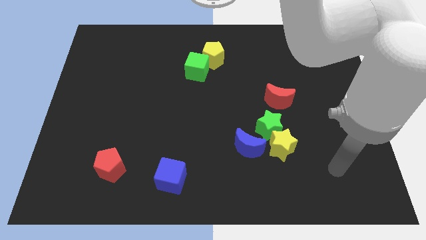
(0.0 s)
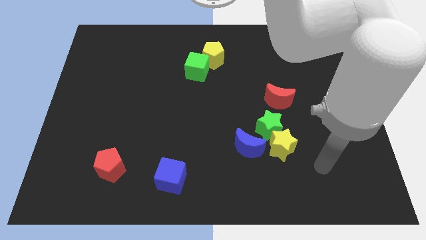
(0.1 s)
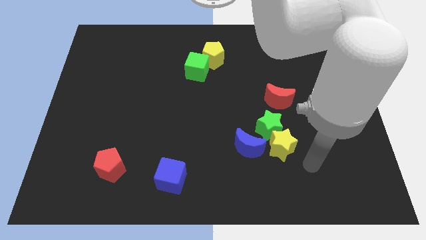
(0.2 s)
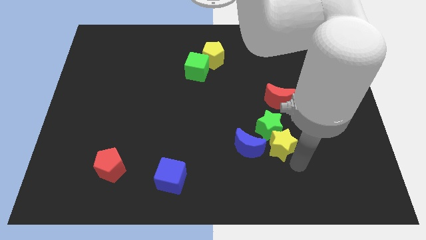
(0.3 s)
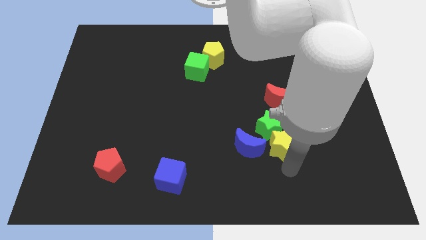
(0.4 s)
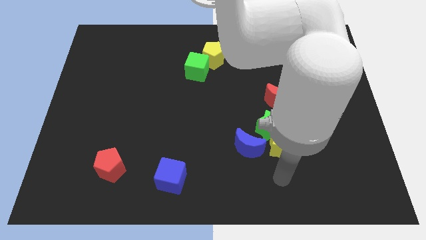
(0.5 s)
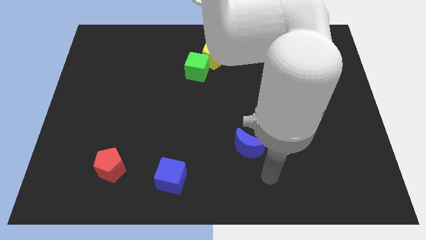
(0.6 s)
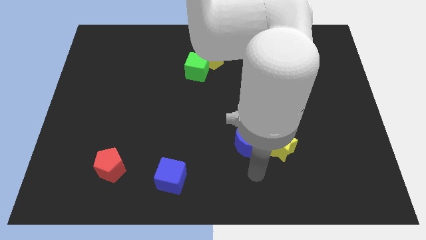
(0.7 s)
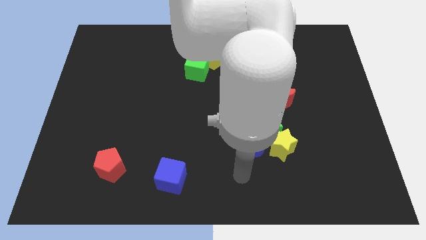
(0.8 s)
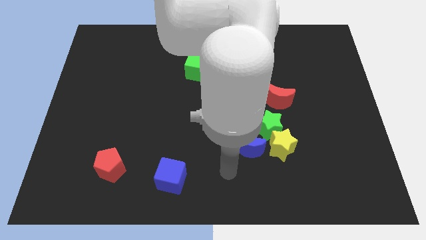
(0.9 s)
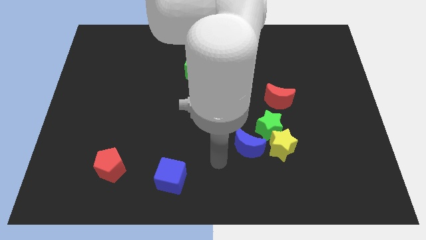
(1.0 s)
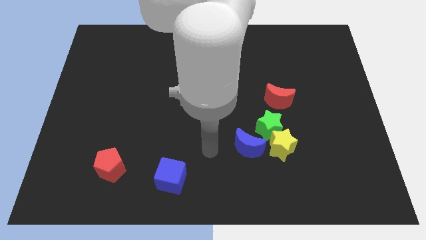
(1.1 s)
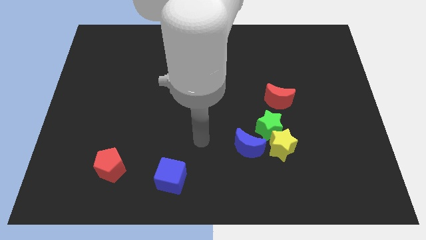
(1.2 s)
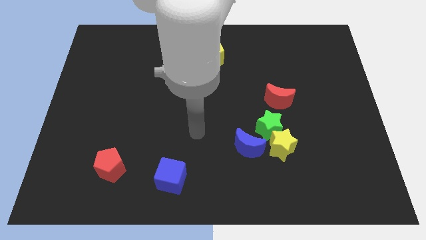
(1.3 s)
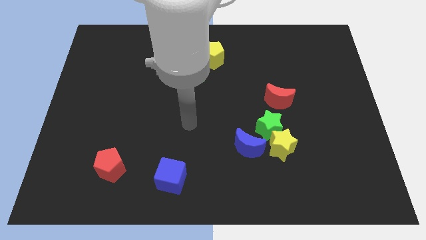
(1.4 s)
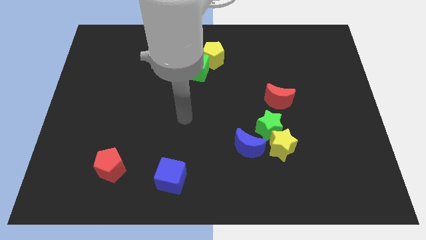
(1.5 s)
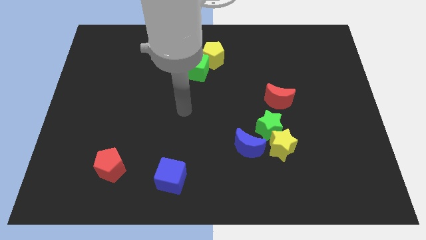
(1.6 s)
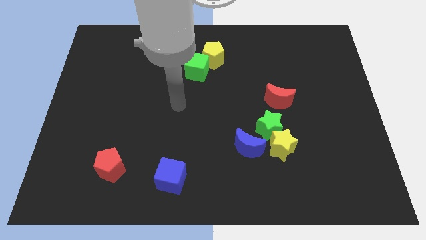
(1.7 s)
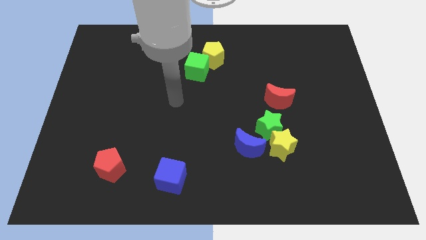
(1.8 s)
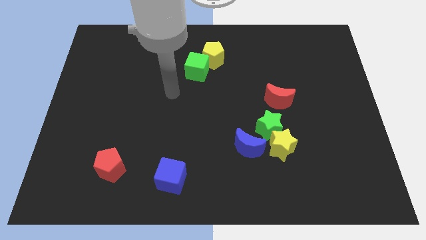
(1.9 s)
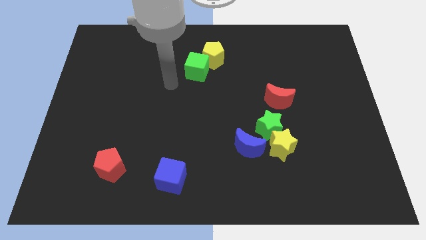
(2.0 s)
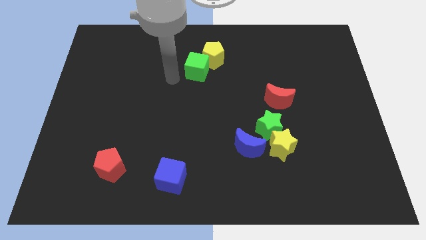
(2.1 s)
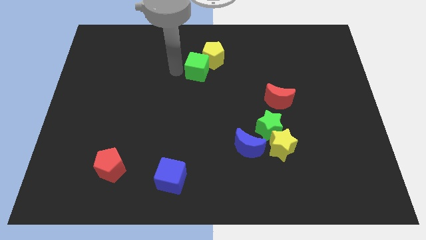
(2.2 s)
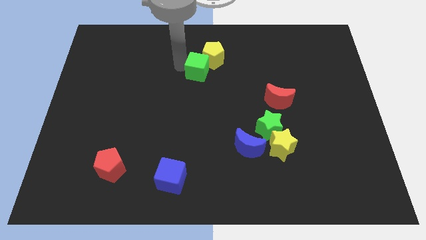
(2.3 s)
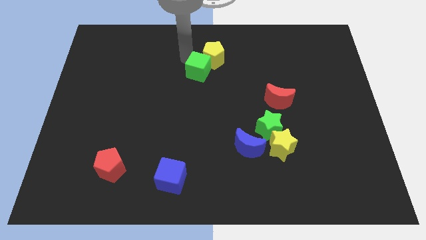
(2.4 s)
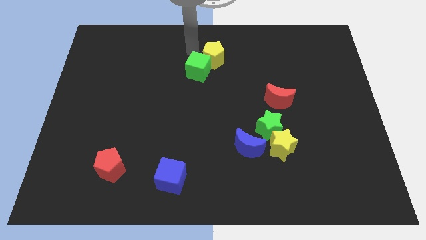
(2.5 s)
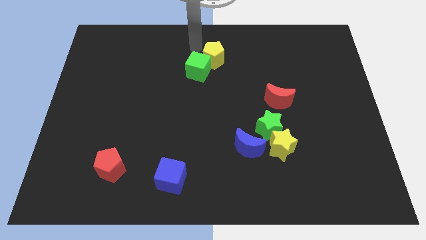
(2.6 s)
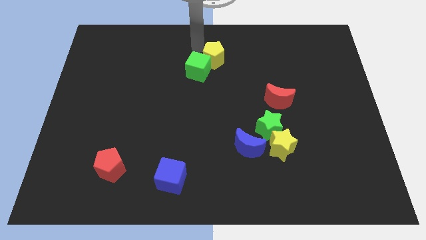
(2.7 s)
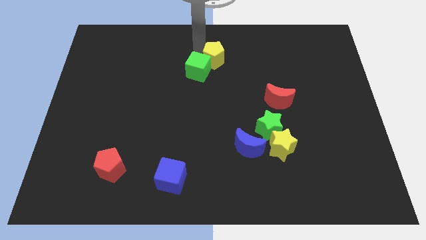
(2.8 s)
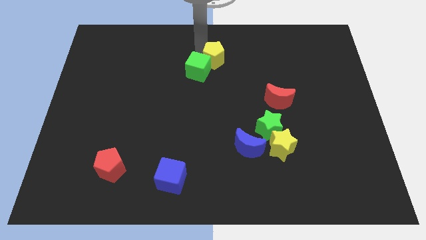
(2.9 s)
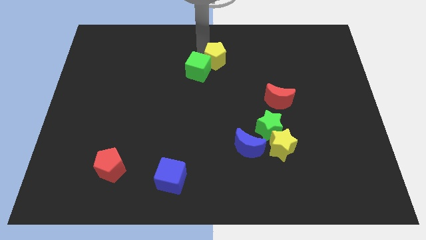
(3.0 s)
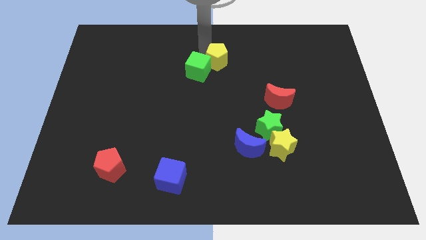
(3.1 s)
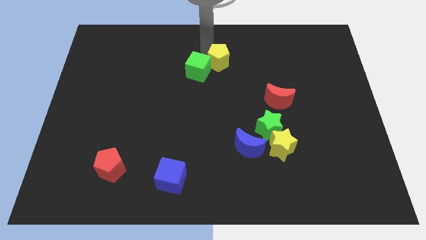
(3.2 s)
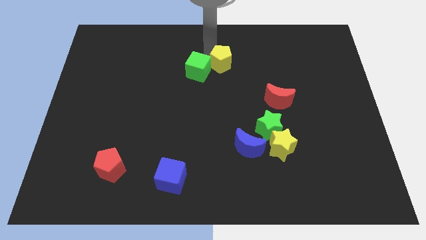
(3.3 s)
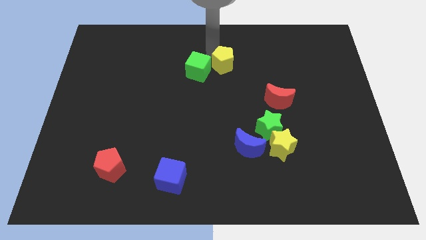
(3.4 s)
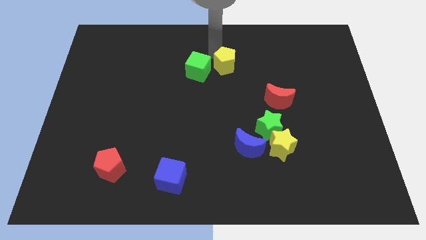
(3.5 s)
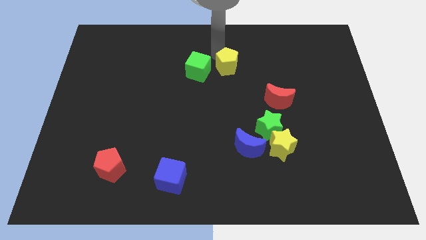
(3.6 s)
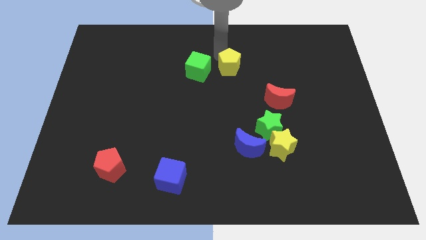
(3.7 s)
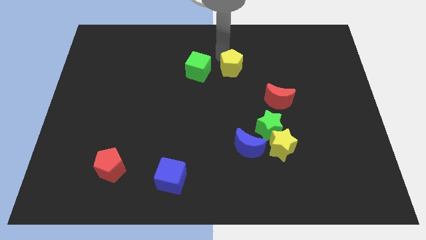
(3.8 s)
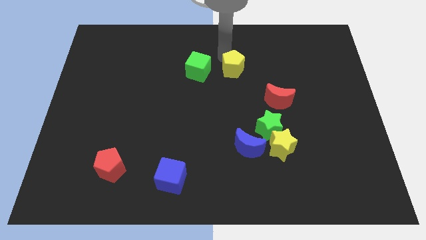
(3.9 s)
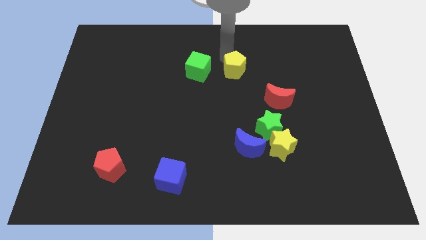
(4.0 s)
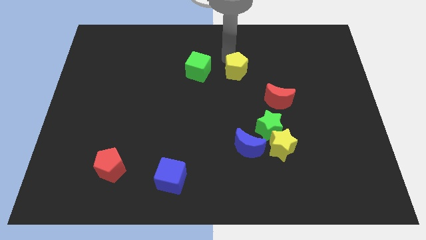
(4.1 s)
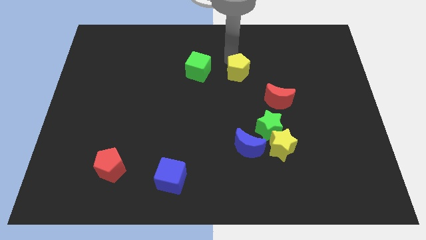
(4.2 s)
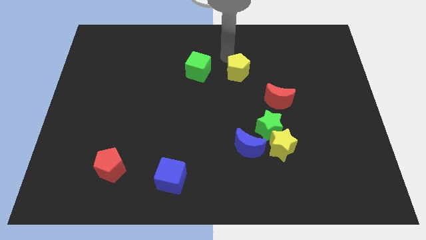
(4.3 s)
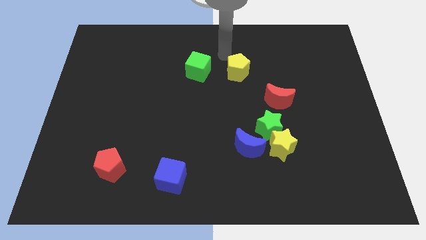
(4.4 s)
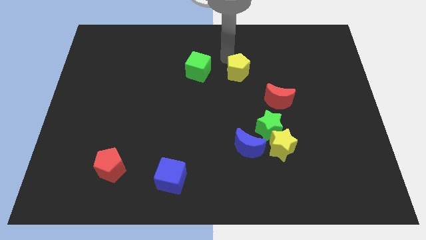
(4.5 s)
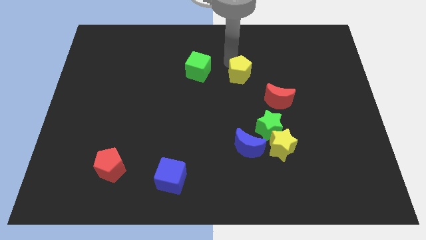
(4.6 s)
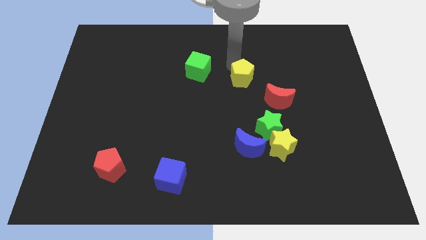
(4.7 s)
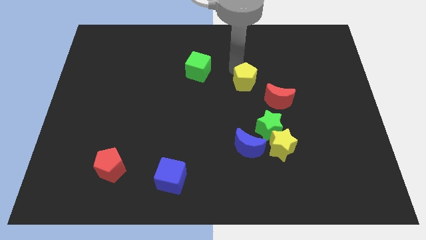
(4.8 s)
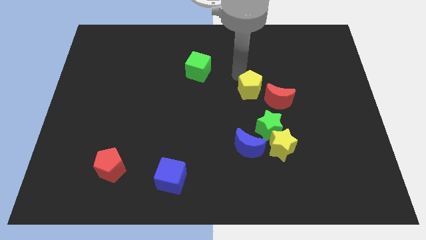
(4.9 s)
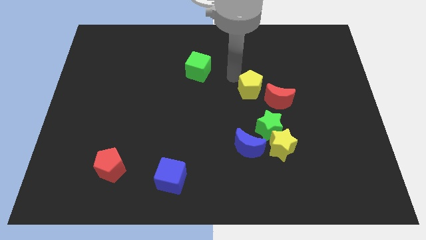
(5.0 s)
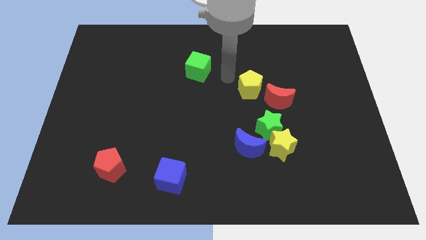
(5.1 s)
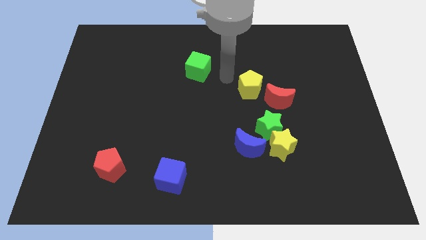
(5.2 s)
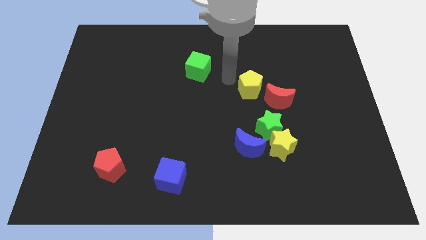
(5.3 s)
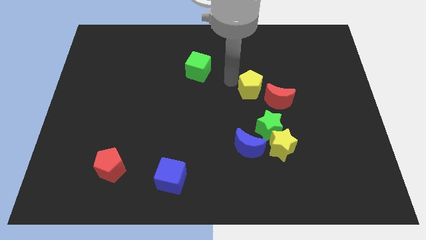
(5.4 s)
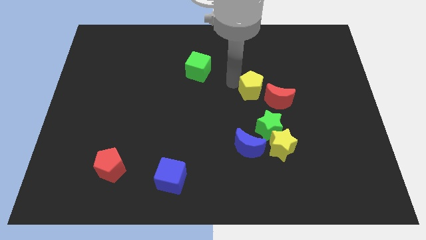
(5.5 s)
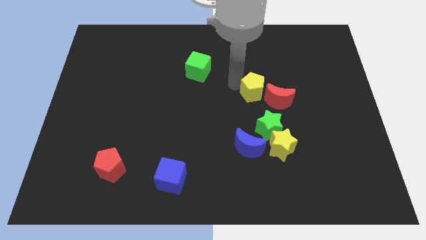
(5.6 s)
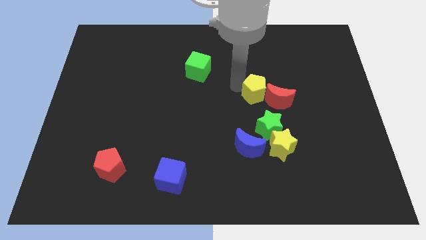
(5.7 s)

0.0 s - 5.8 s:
push the yellow pentagon next to the red moon

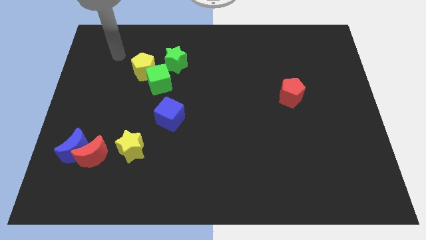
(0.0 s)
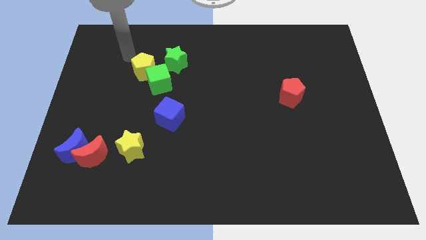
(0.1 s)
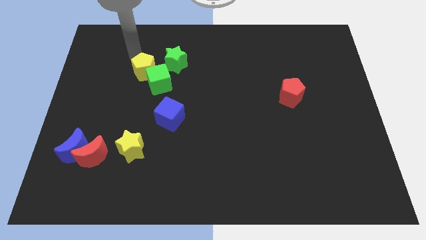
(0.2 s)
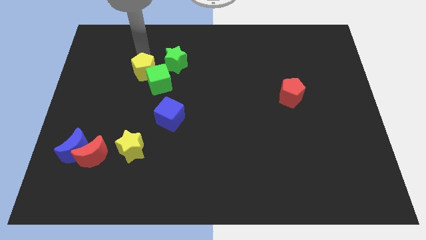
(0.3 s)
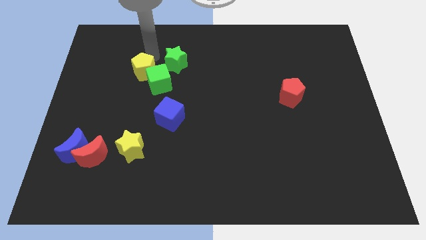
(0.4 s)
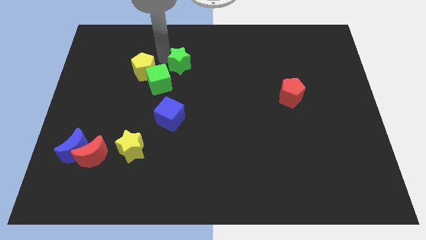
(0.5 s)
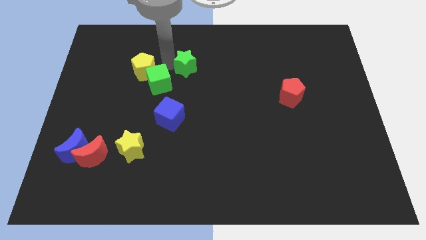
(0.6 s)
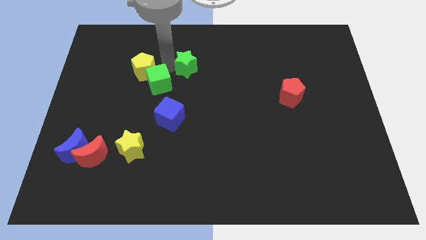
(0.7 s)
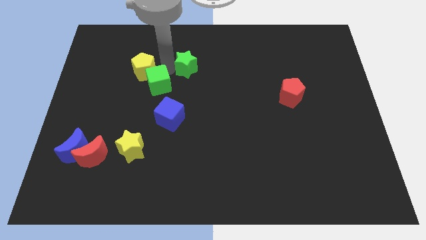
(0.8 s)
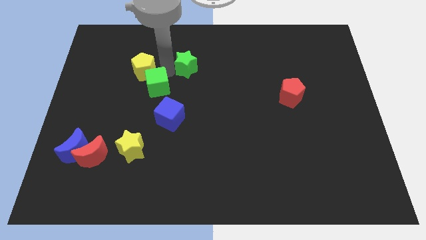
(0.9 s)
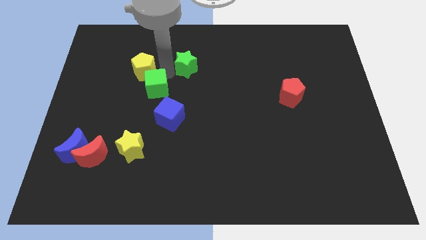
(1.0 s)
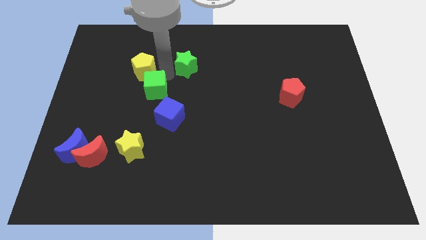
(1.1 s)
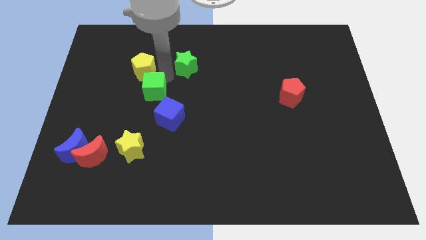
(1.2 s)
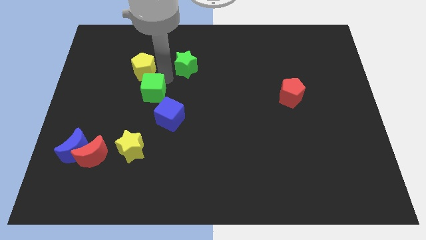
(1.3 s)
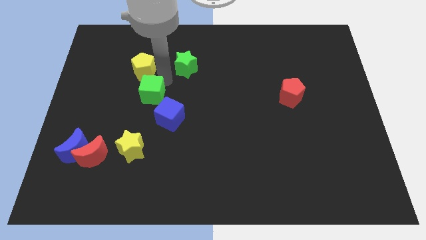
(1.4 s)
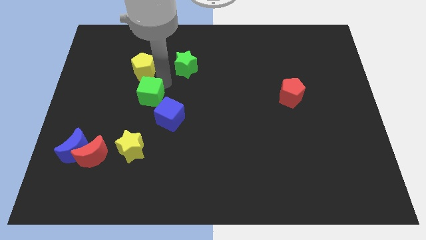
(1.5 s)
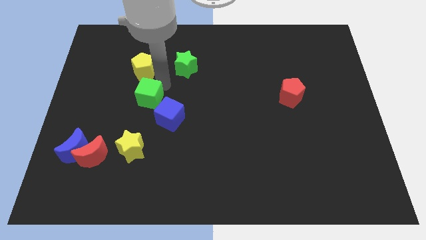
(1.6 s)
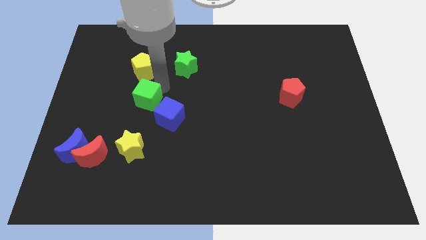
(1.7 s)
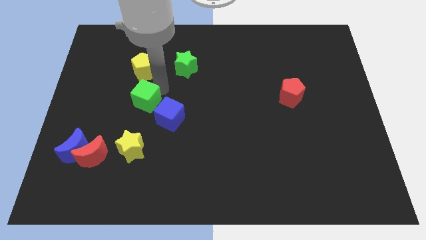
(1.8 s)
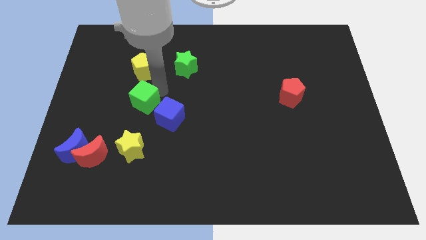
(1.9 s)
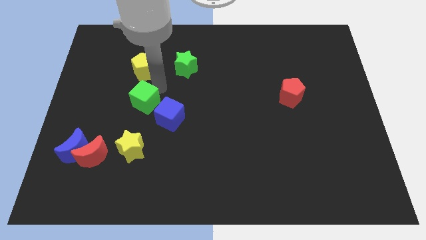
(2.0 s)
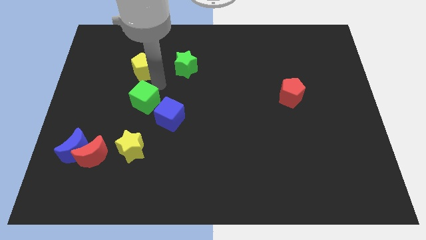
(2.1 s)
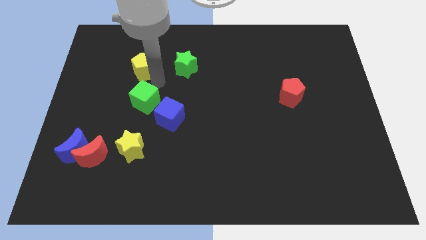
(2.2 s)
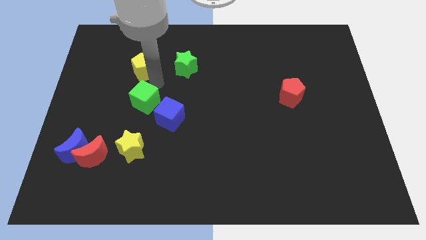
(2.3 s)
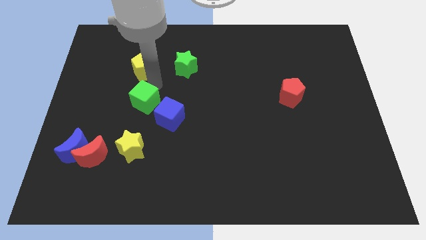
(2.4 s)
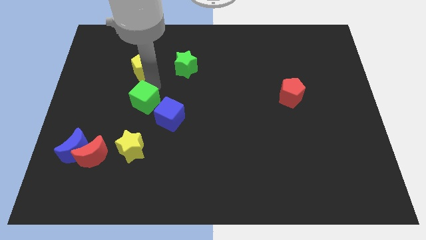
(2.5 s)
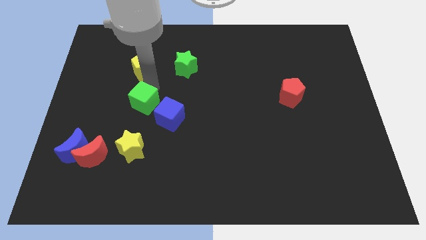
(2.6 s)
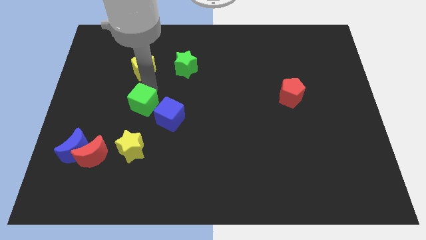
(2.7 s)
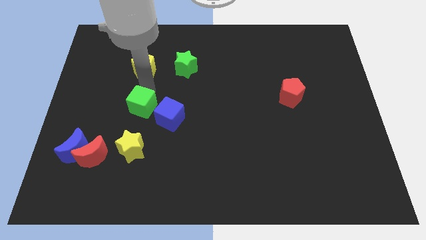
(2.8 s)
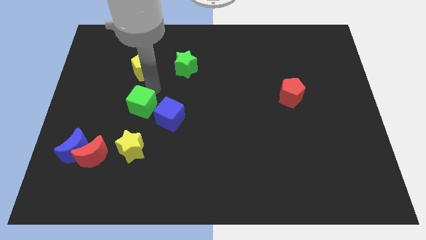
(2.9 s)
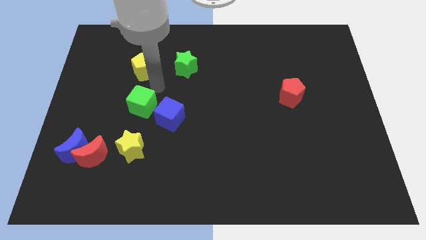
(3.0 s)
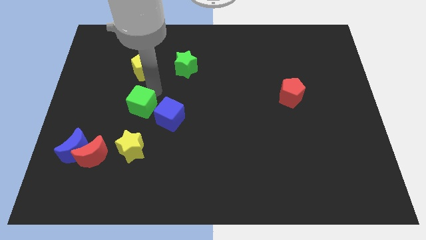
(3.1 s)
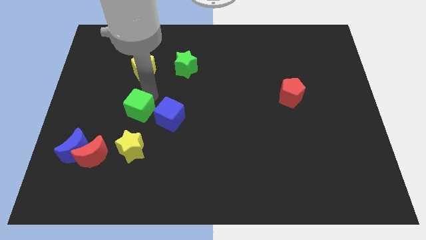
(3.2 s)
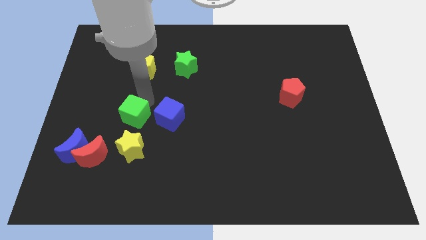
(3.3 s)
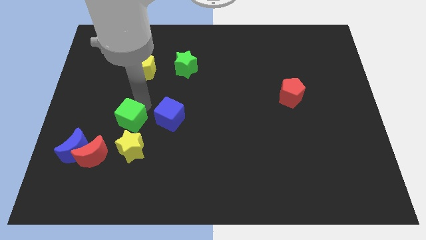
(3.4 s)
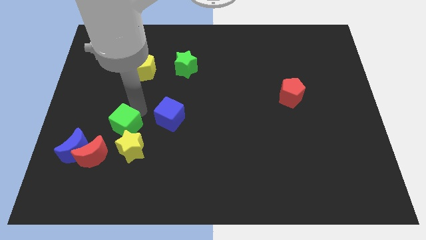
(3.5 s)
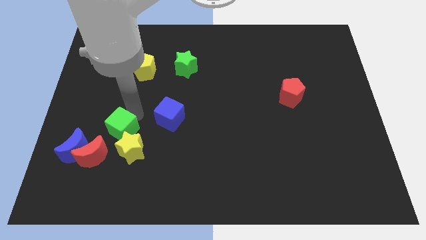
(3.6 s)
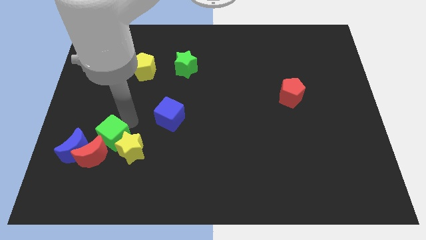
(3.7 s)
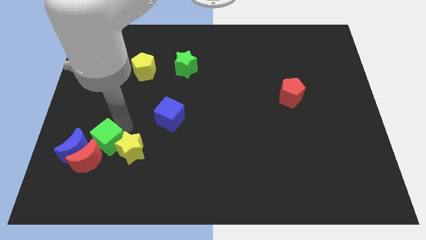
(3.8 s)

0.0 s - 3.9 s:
put the green cube to the red moon
